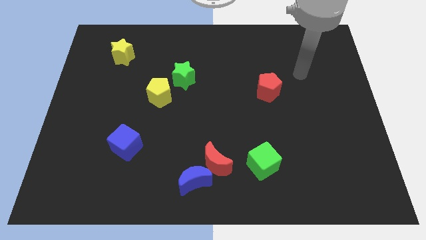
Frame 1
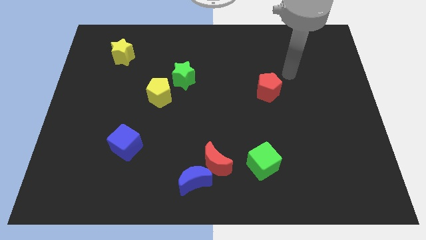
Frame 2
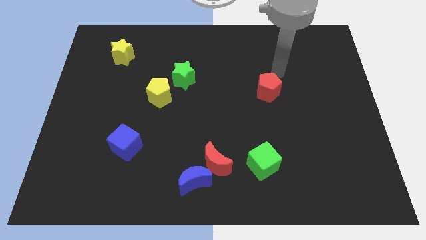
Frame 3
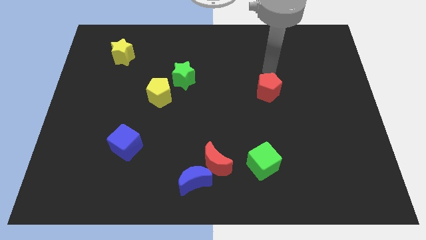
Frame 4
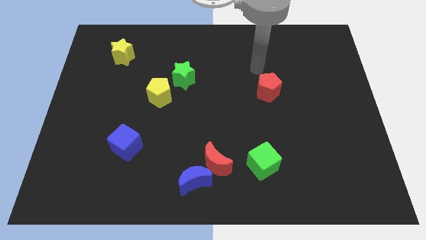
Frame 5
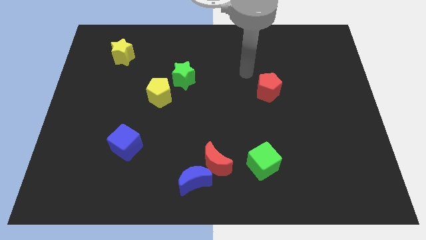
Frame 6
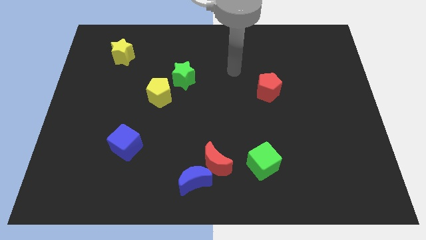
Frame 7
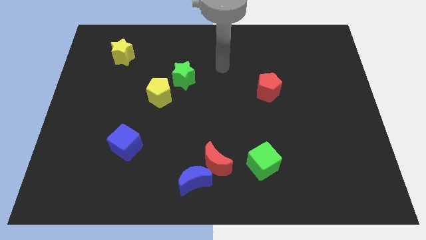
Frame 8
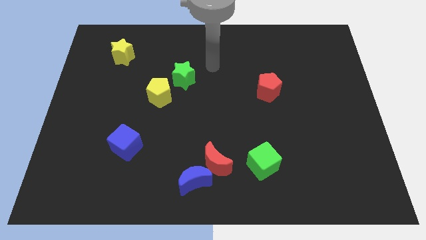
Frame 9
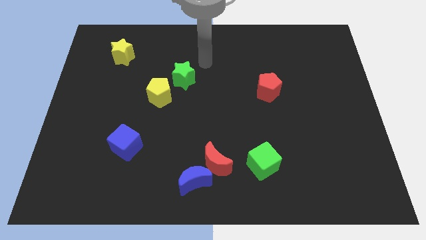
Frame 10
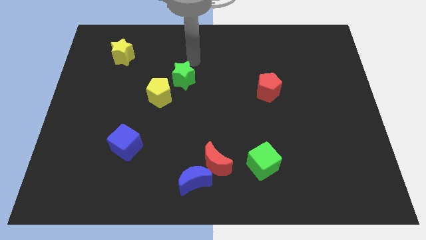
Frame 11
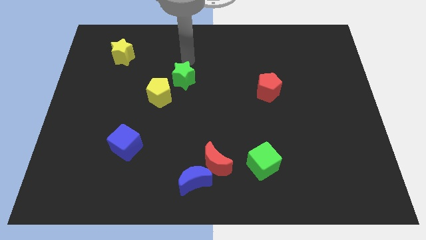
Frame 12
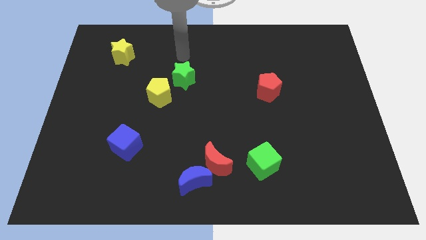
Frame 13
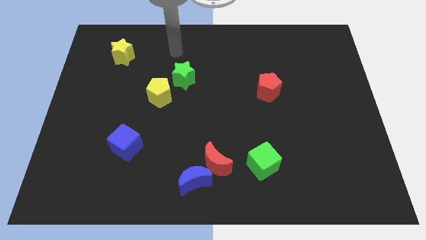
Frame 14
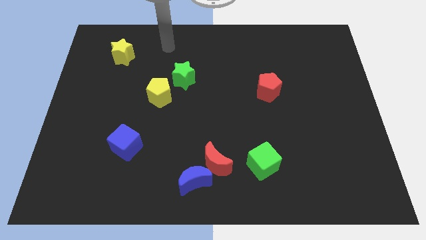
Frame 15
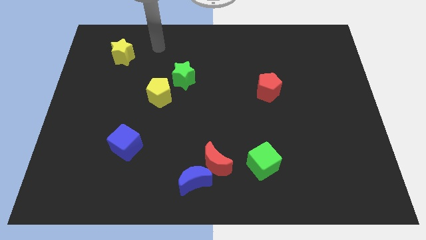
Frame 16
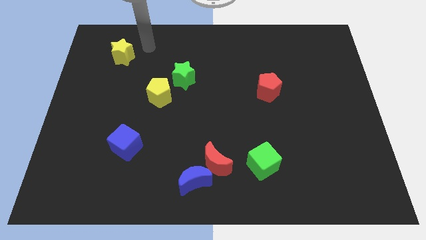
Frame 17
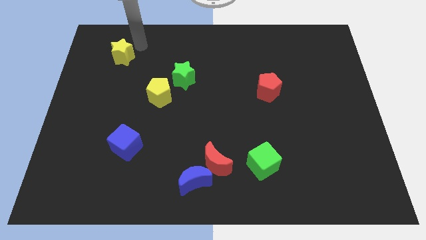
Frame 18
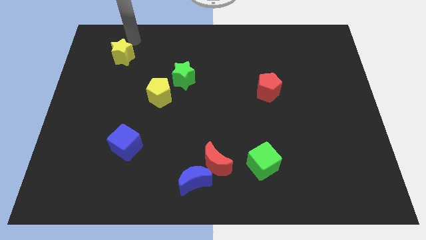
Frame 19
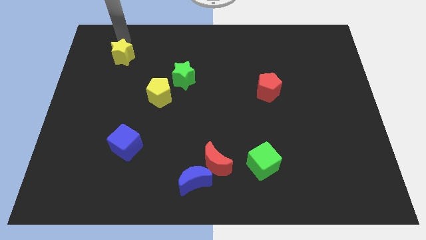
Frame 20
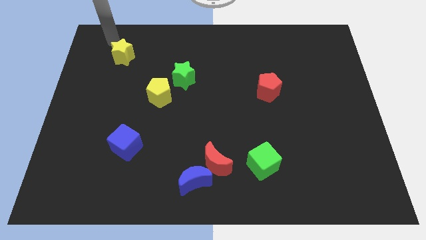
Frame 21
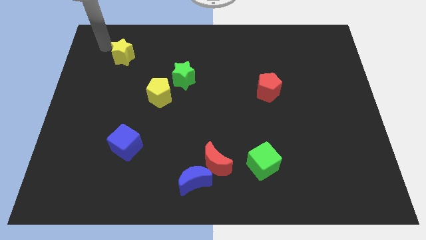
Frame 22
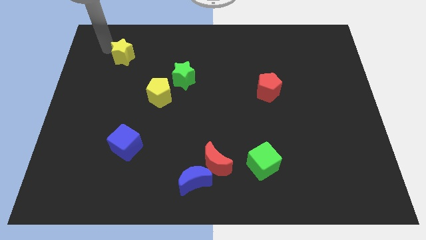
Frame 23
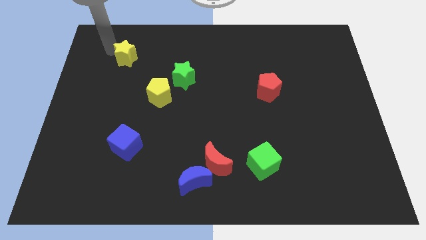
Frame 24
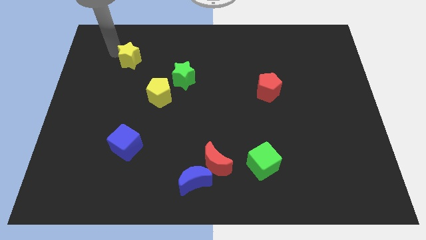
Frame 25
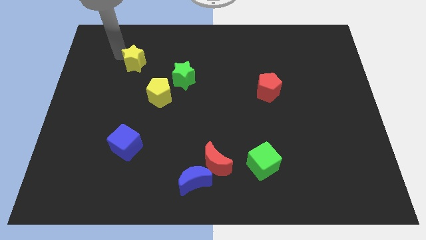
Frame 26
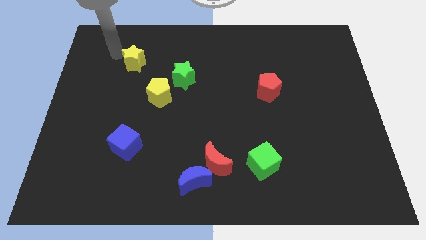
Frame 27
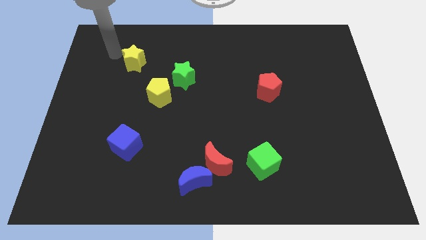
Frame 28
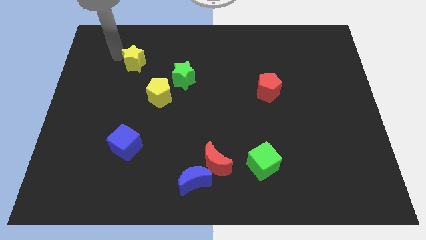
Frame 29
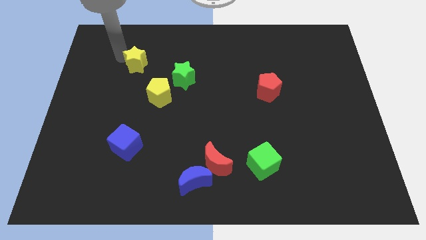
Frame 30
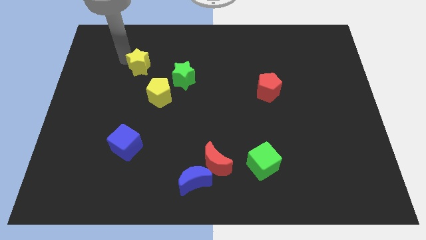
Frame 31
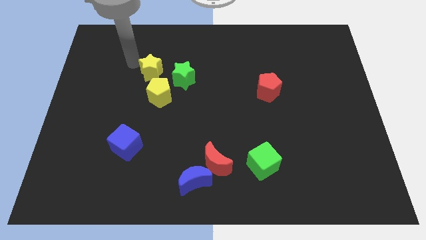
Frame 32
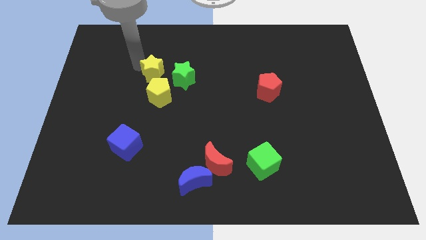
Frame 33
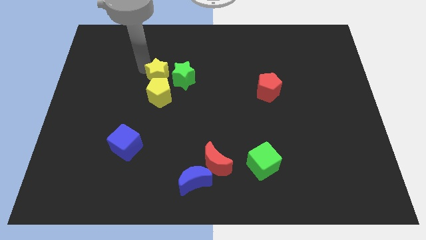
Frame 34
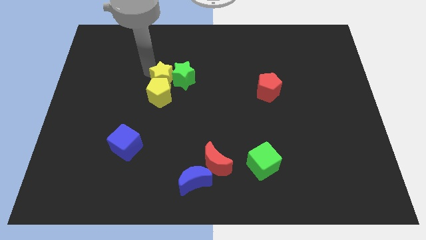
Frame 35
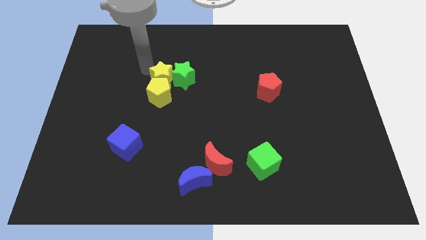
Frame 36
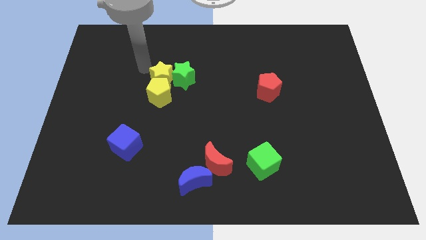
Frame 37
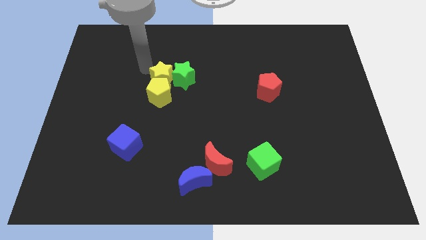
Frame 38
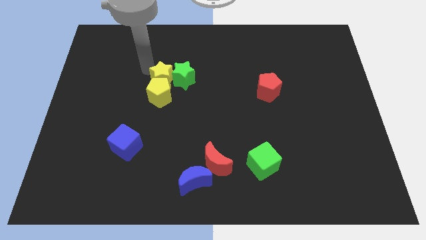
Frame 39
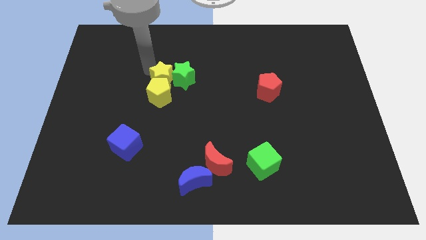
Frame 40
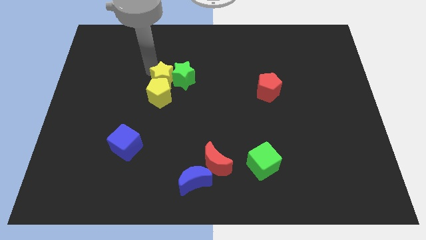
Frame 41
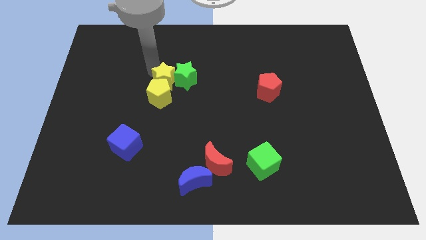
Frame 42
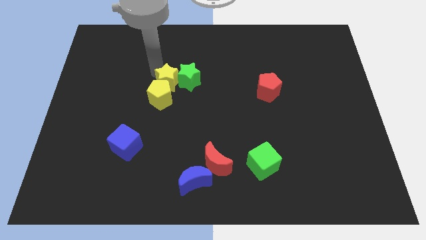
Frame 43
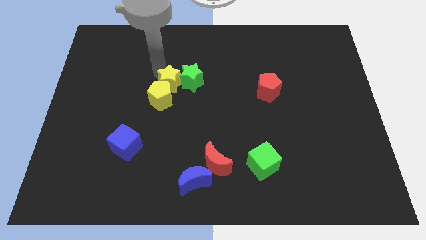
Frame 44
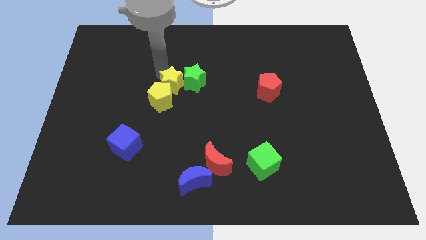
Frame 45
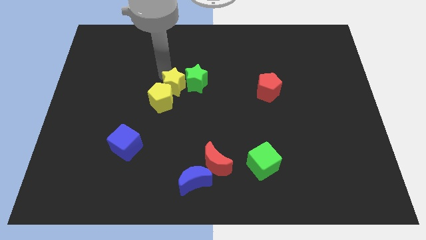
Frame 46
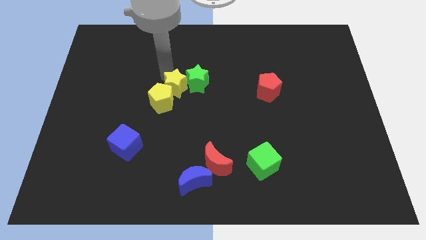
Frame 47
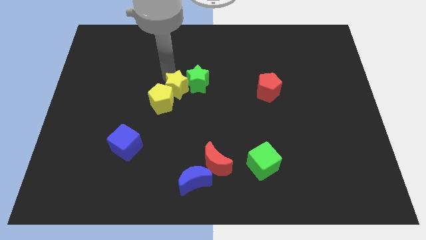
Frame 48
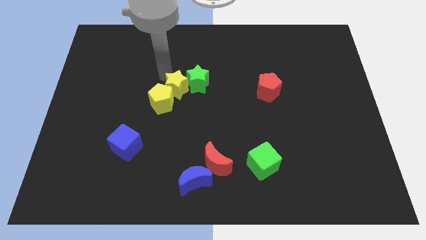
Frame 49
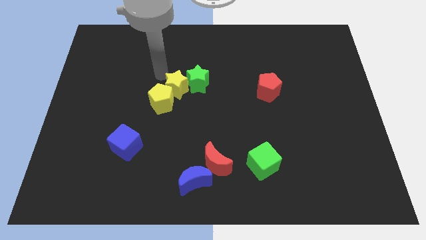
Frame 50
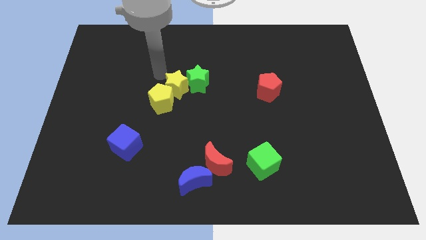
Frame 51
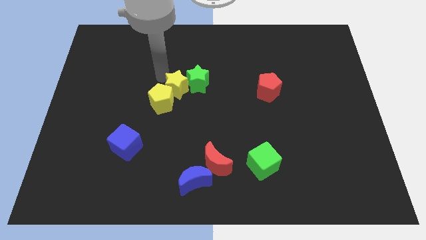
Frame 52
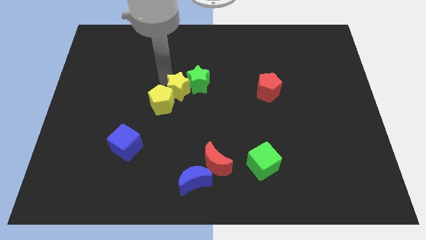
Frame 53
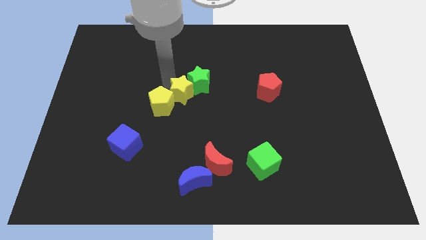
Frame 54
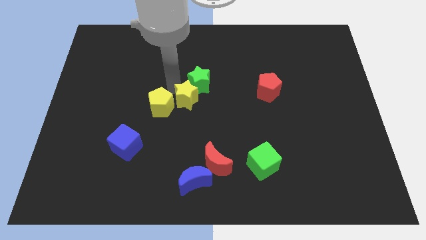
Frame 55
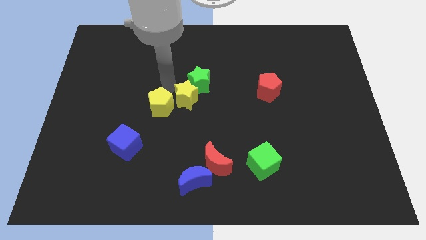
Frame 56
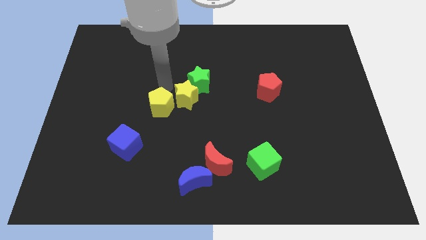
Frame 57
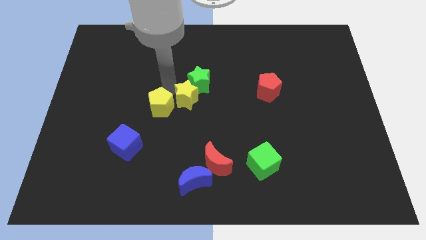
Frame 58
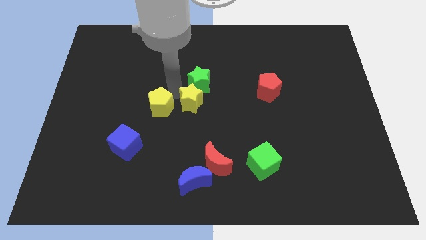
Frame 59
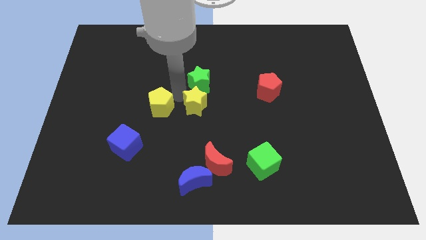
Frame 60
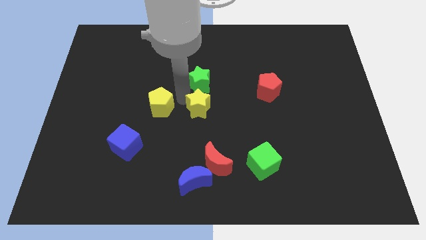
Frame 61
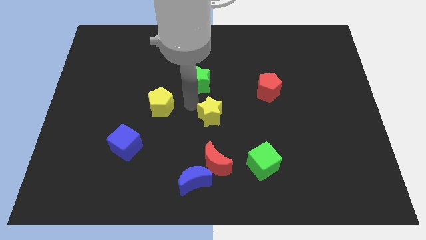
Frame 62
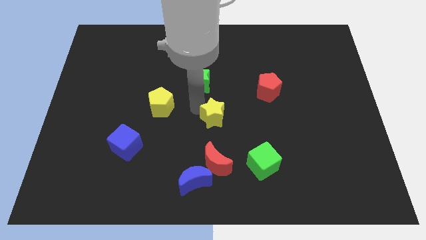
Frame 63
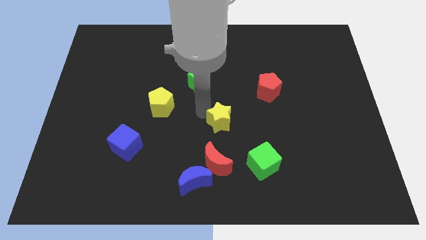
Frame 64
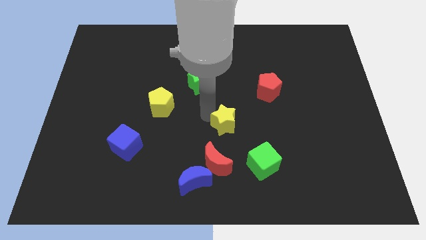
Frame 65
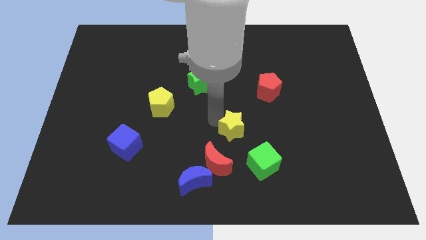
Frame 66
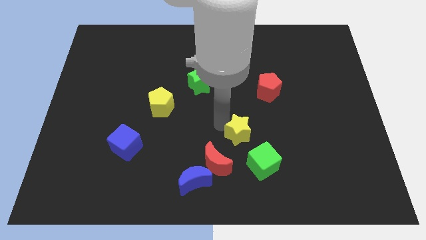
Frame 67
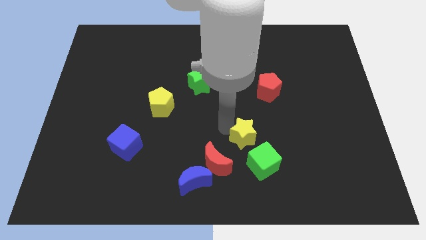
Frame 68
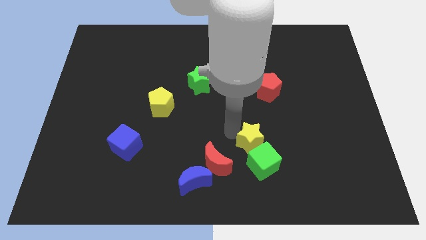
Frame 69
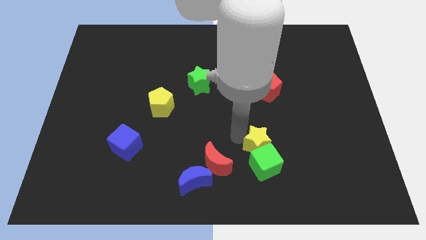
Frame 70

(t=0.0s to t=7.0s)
slide the yellow star just right of the red moon
